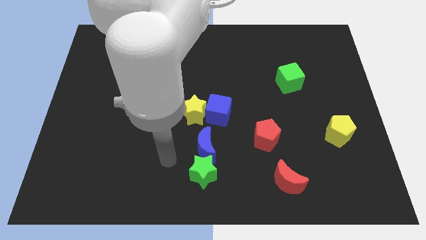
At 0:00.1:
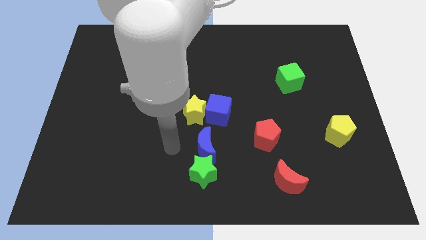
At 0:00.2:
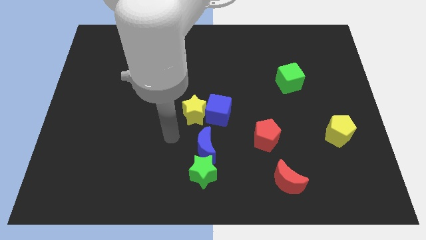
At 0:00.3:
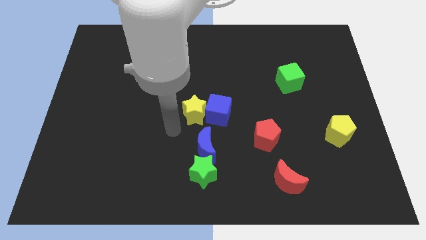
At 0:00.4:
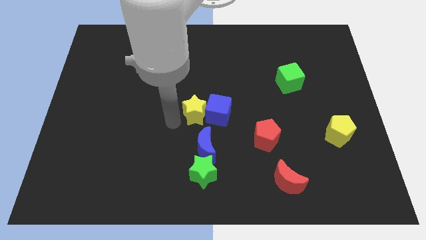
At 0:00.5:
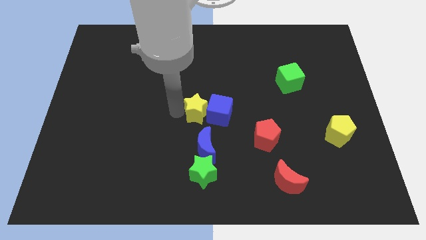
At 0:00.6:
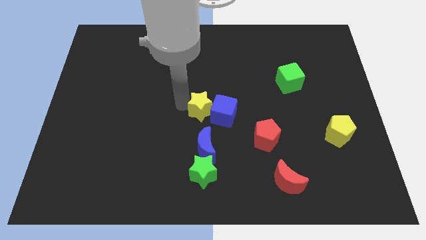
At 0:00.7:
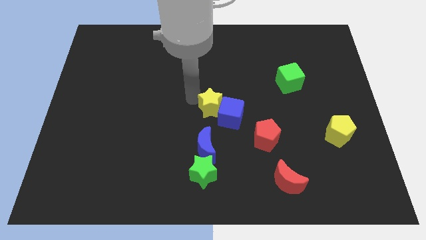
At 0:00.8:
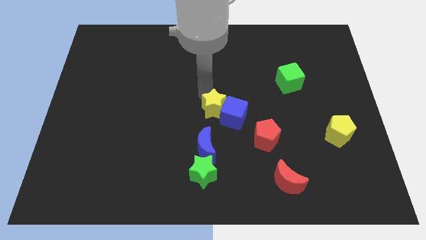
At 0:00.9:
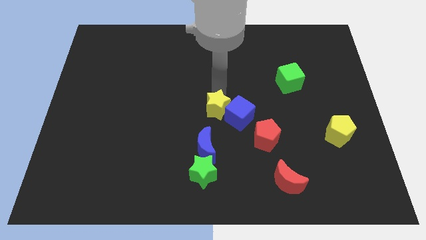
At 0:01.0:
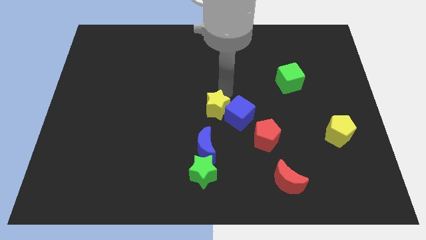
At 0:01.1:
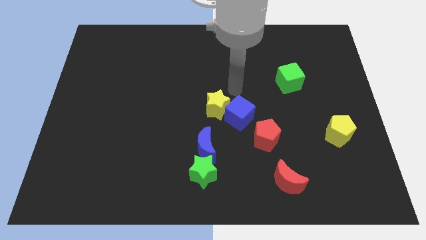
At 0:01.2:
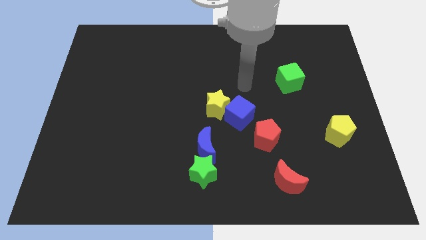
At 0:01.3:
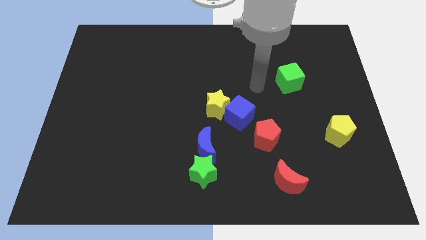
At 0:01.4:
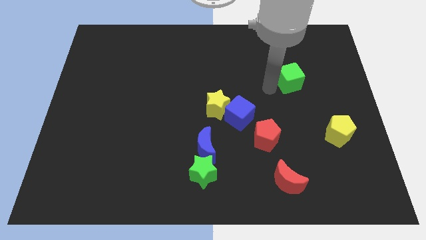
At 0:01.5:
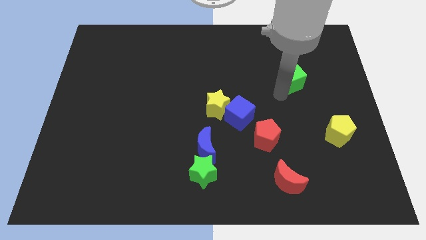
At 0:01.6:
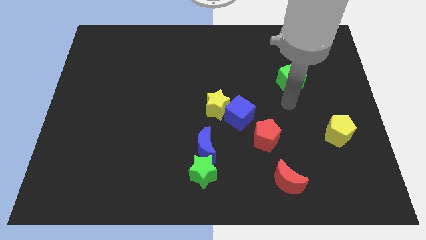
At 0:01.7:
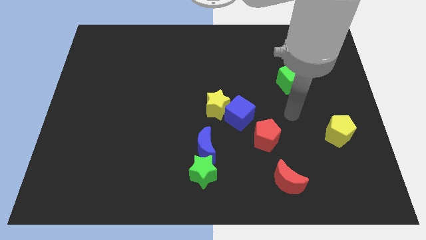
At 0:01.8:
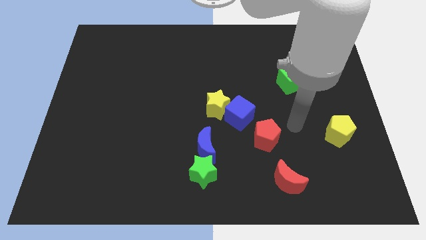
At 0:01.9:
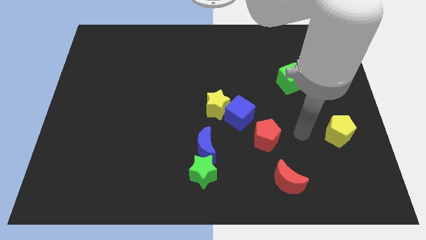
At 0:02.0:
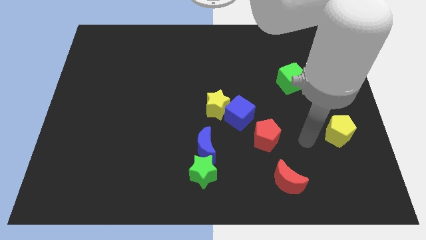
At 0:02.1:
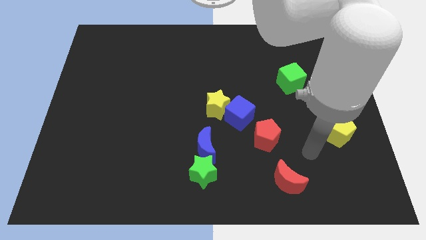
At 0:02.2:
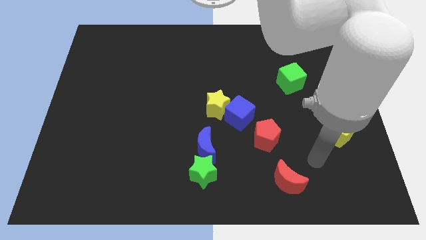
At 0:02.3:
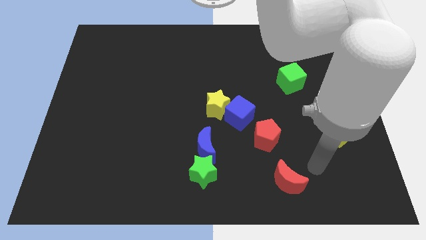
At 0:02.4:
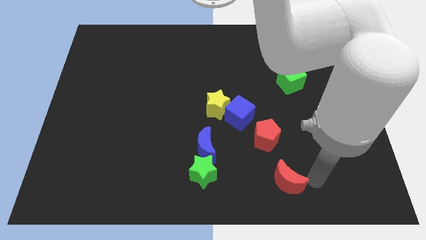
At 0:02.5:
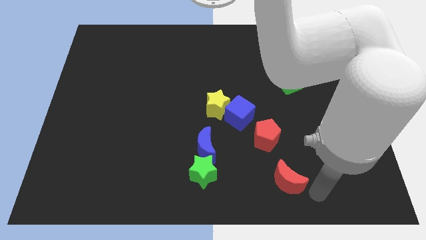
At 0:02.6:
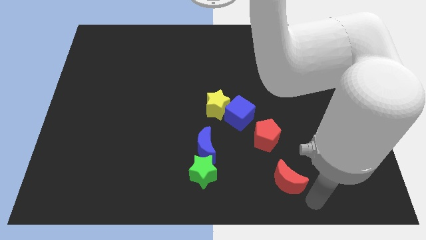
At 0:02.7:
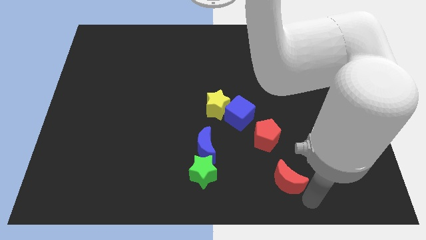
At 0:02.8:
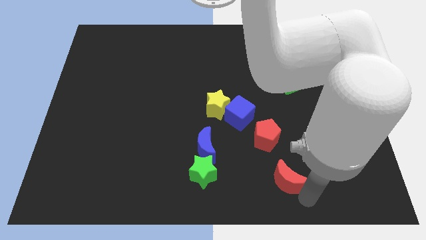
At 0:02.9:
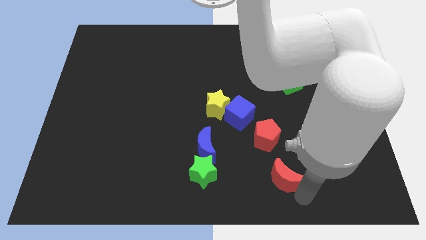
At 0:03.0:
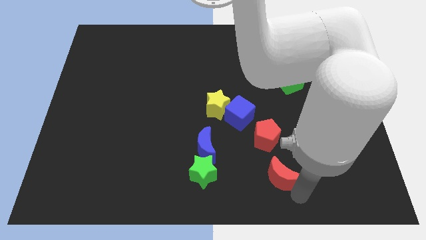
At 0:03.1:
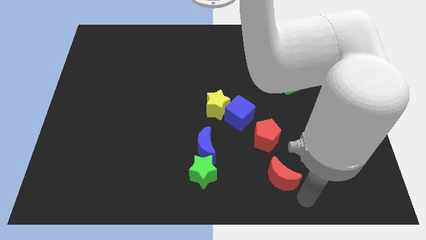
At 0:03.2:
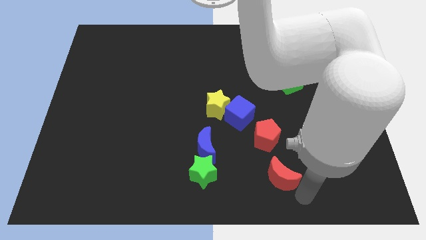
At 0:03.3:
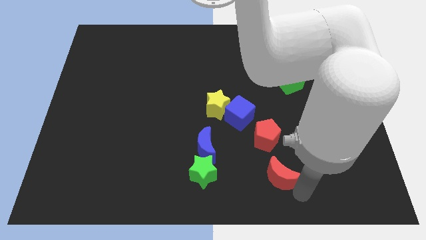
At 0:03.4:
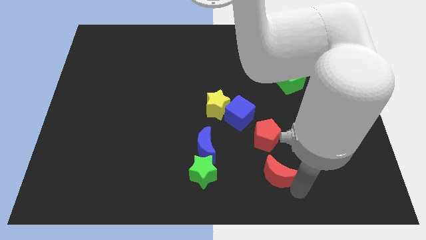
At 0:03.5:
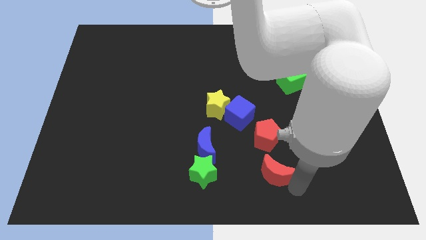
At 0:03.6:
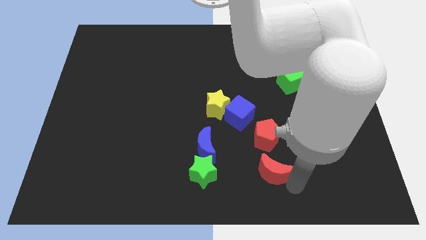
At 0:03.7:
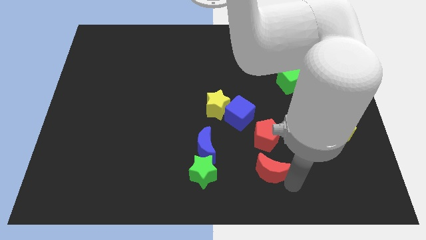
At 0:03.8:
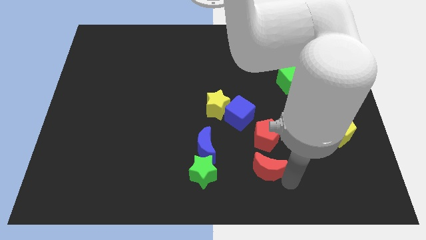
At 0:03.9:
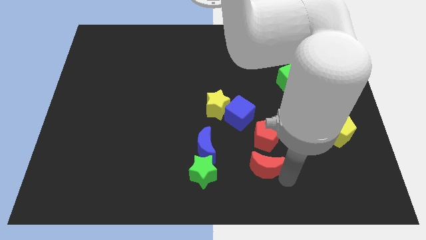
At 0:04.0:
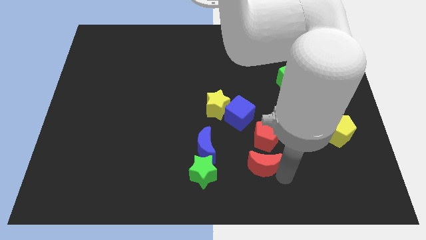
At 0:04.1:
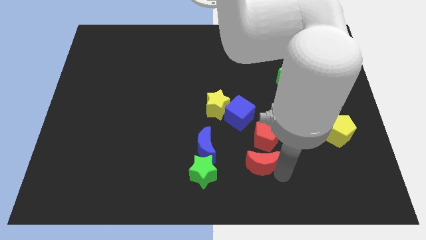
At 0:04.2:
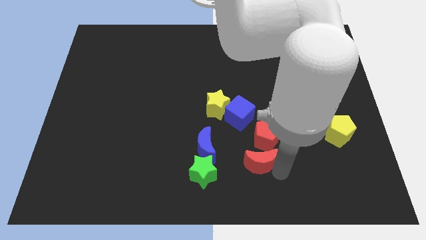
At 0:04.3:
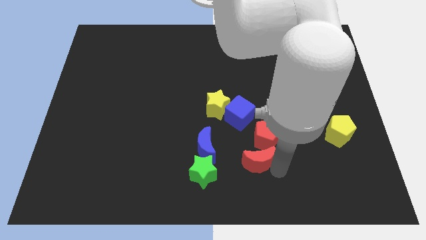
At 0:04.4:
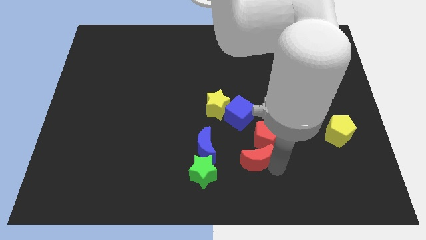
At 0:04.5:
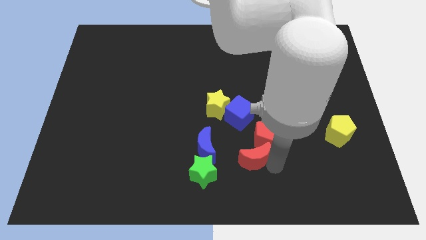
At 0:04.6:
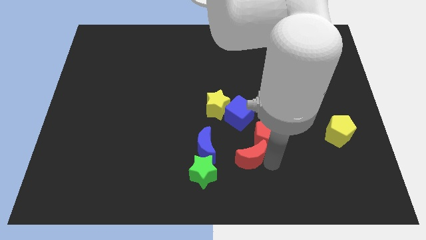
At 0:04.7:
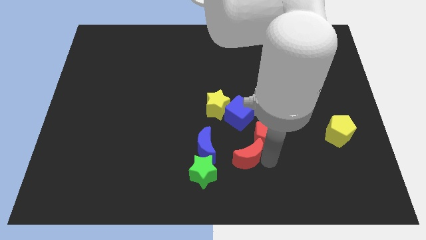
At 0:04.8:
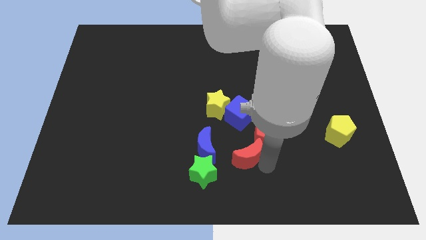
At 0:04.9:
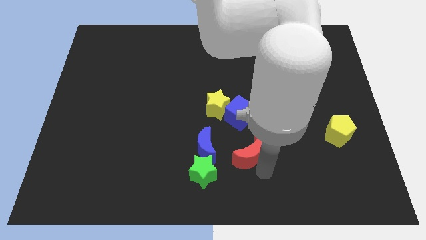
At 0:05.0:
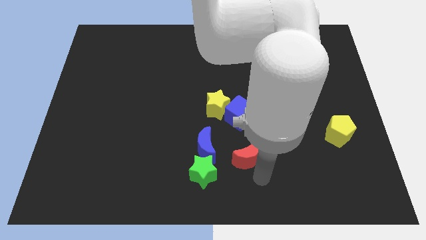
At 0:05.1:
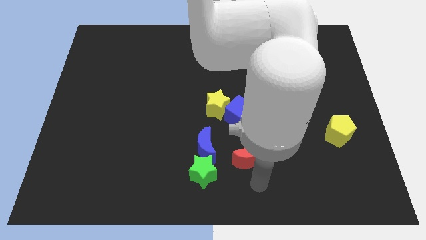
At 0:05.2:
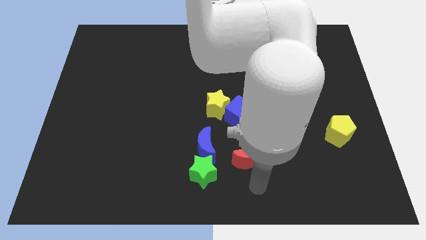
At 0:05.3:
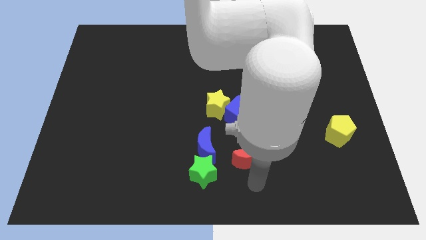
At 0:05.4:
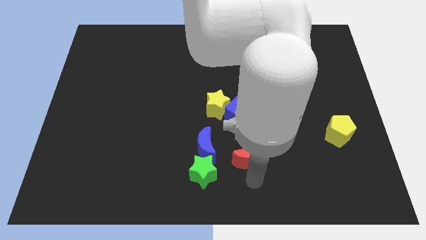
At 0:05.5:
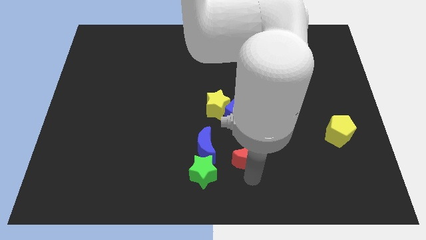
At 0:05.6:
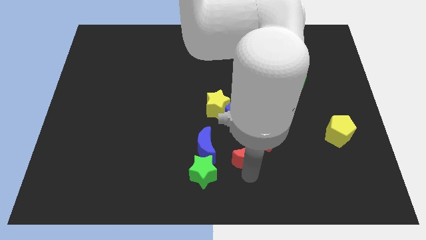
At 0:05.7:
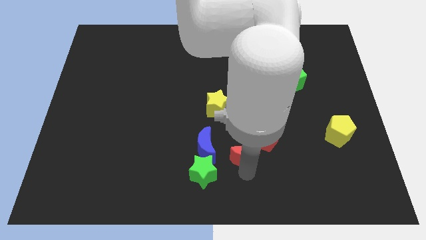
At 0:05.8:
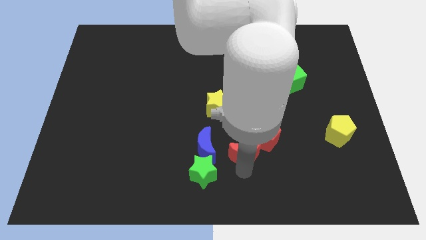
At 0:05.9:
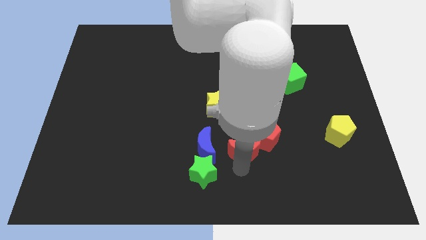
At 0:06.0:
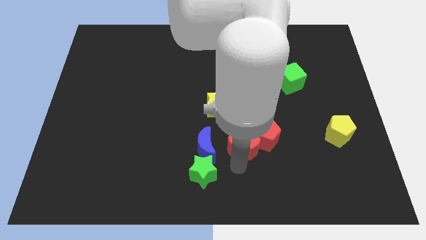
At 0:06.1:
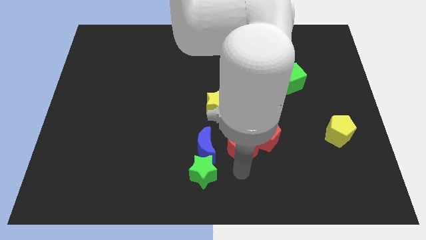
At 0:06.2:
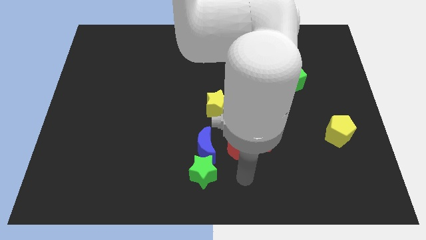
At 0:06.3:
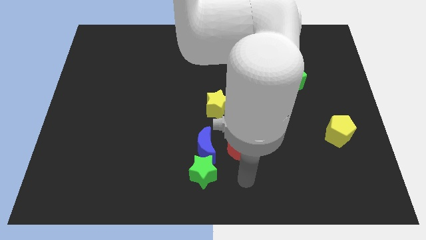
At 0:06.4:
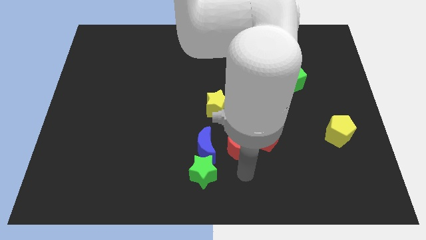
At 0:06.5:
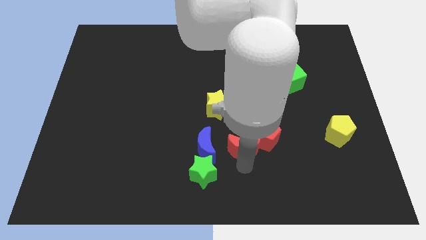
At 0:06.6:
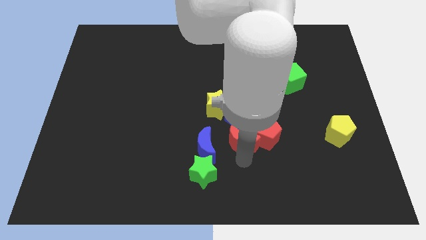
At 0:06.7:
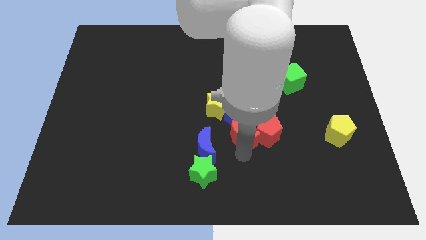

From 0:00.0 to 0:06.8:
slide the red moon to the center
